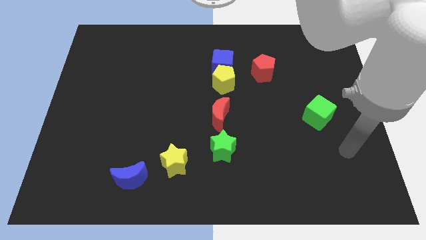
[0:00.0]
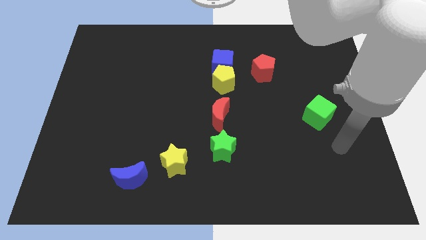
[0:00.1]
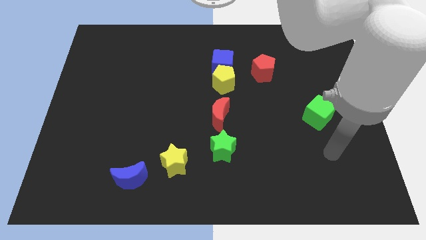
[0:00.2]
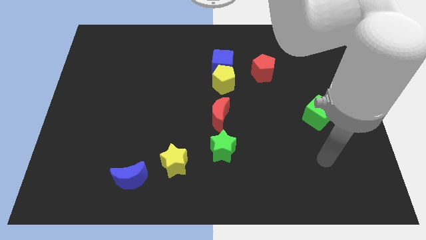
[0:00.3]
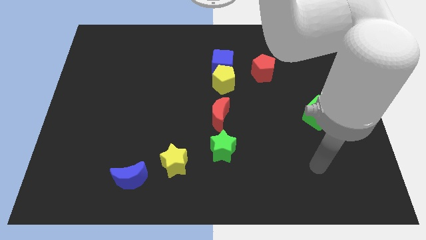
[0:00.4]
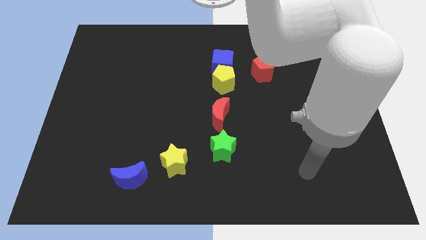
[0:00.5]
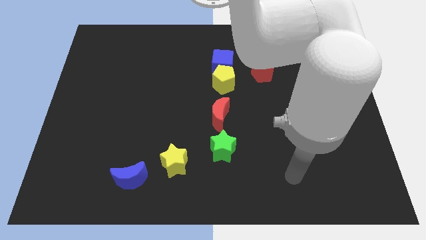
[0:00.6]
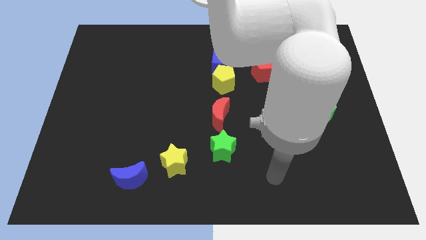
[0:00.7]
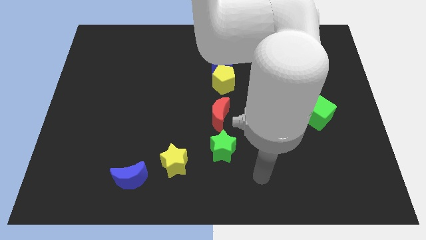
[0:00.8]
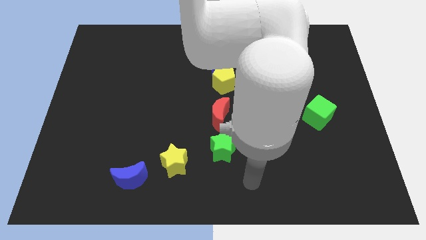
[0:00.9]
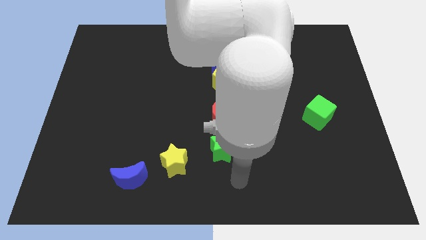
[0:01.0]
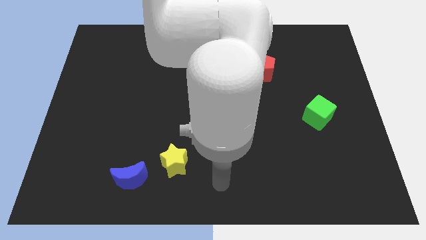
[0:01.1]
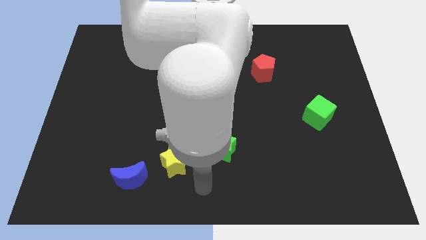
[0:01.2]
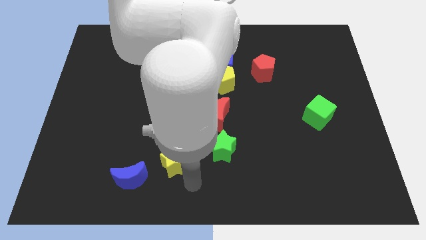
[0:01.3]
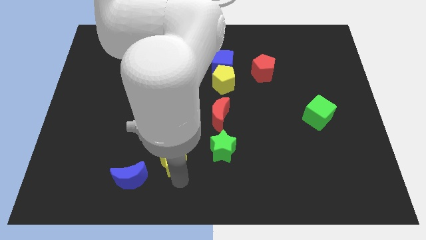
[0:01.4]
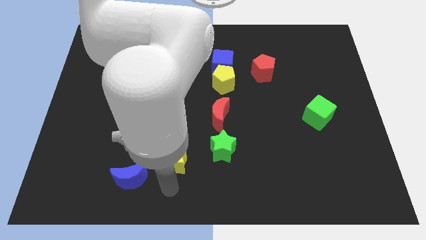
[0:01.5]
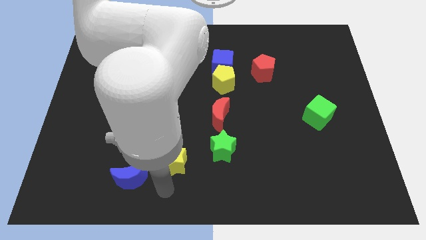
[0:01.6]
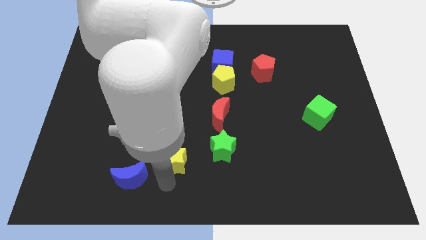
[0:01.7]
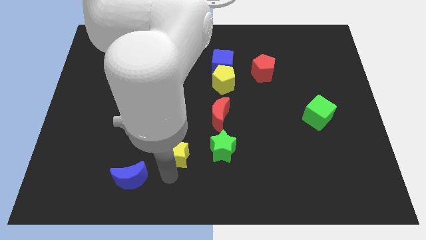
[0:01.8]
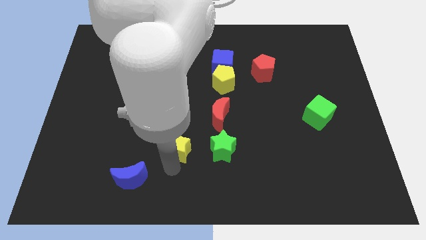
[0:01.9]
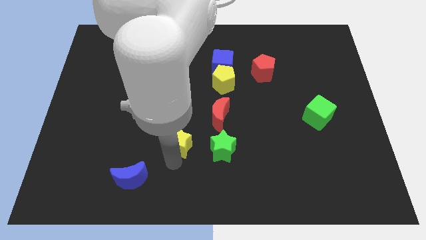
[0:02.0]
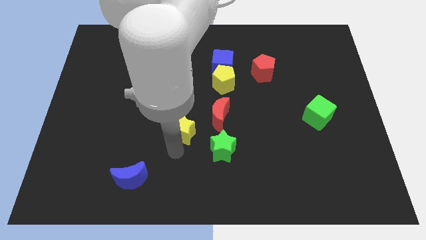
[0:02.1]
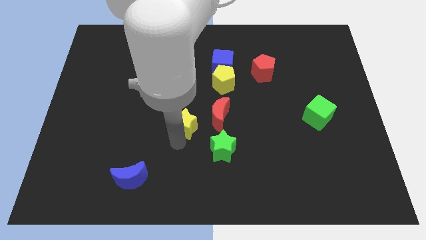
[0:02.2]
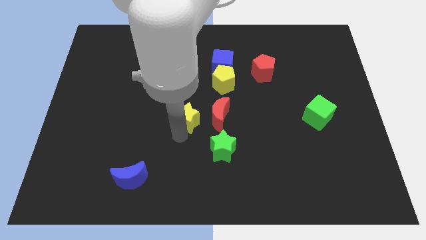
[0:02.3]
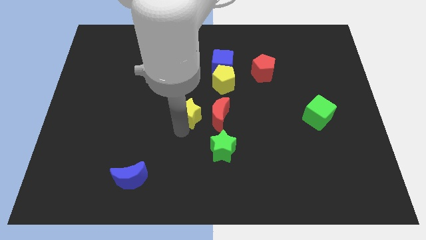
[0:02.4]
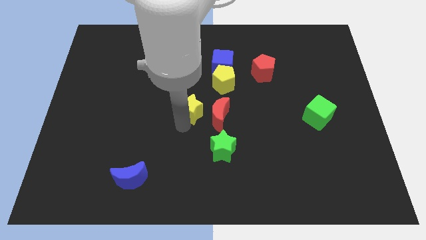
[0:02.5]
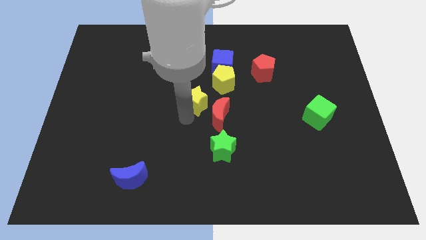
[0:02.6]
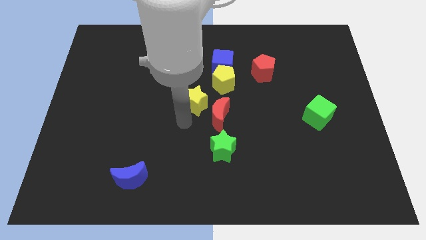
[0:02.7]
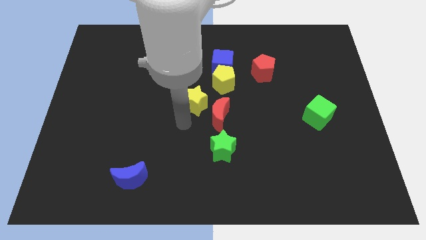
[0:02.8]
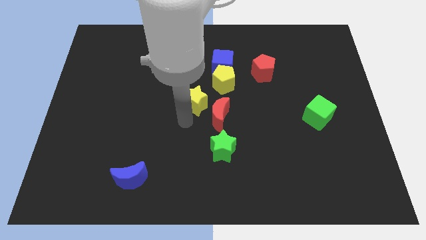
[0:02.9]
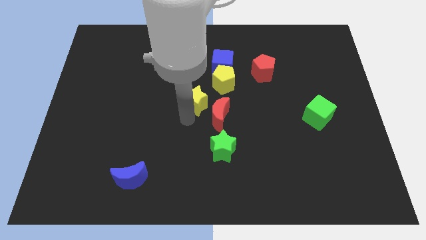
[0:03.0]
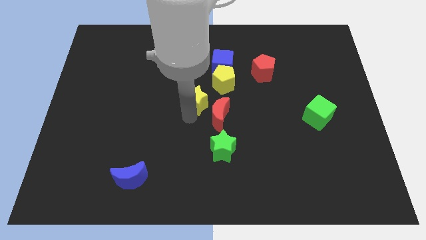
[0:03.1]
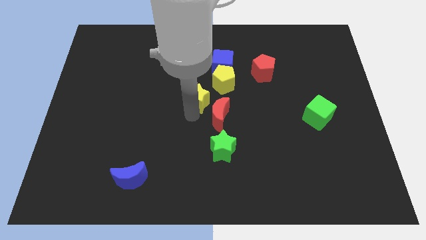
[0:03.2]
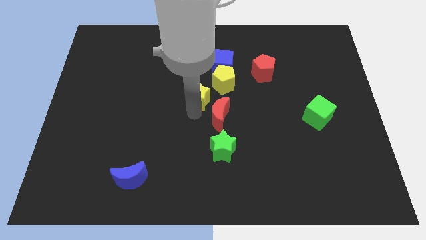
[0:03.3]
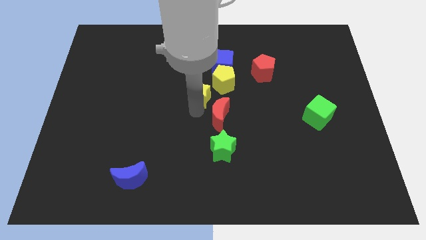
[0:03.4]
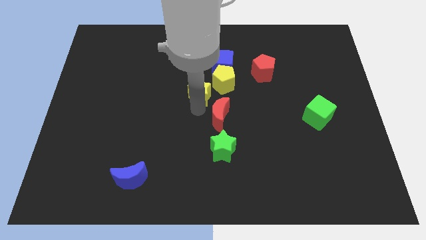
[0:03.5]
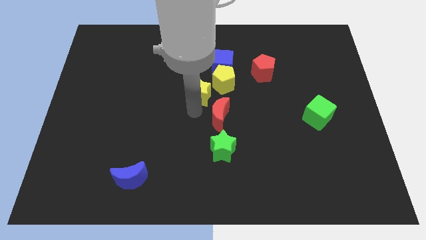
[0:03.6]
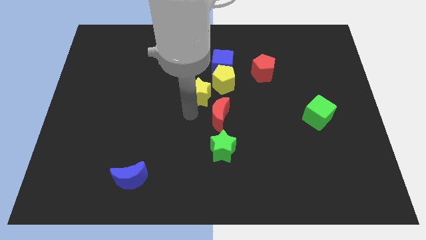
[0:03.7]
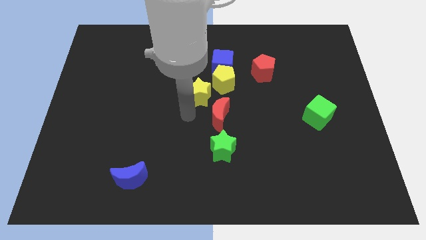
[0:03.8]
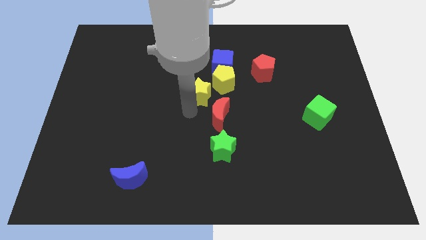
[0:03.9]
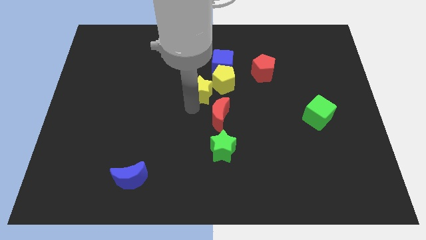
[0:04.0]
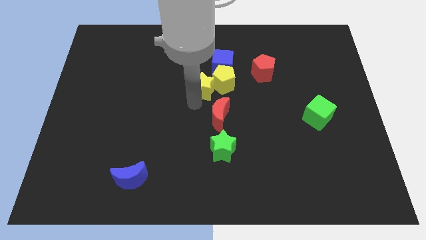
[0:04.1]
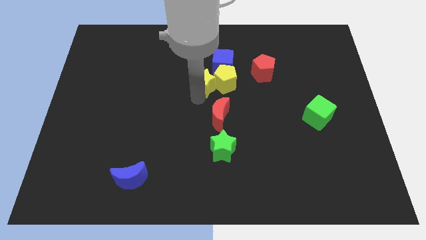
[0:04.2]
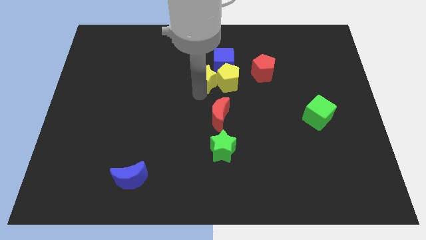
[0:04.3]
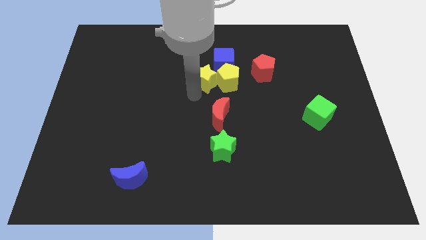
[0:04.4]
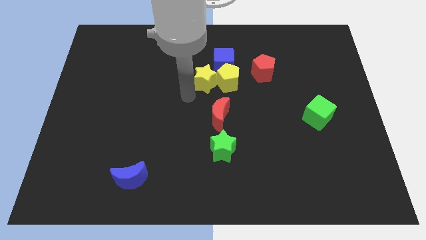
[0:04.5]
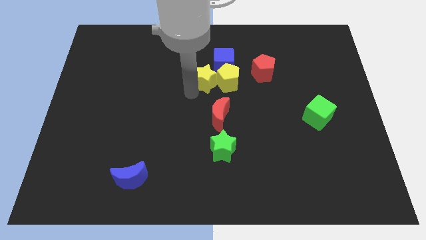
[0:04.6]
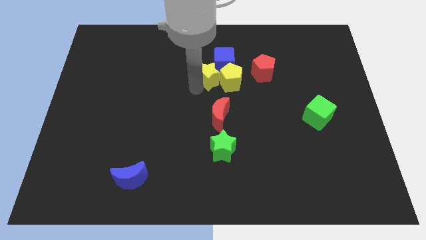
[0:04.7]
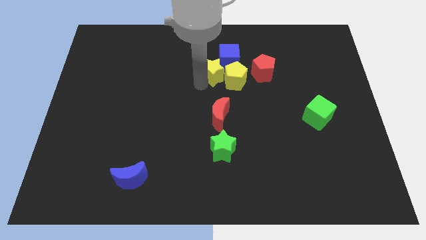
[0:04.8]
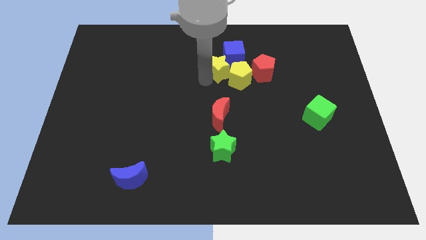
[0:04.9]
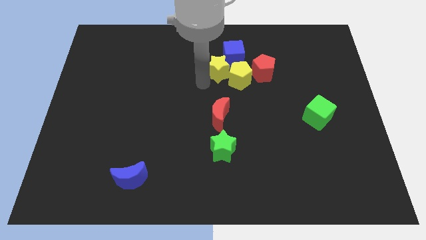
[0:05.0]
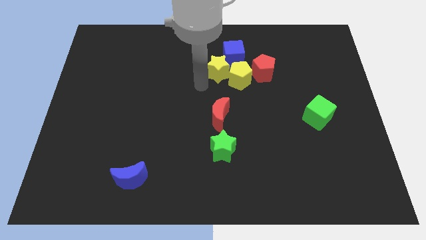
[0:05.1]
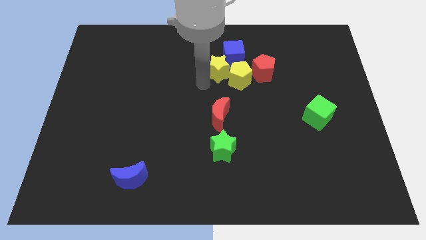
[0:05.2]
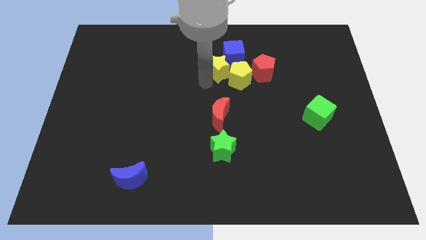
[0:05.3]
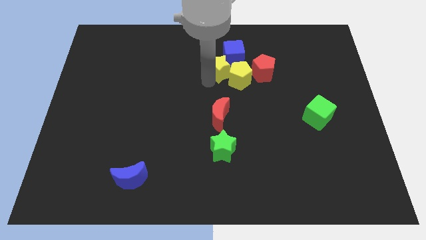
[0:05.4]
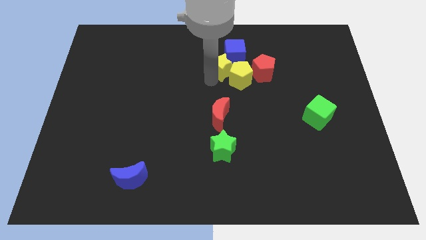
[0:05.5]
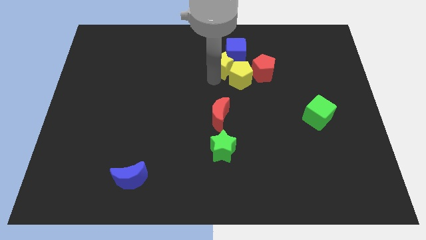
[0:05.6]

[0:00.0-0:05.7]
slide the yellow star to the blue cube

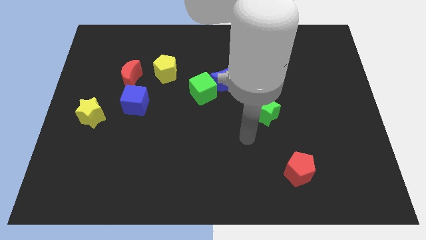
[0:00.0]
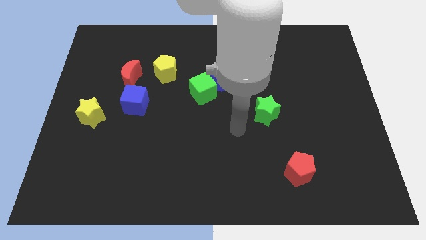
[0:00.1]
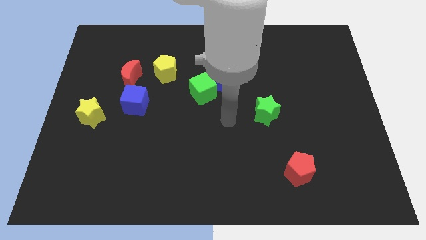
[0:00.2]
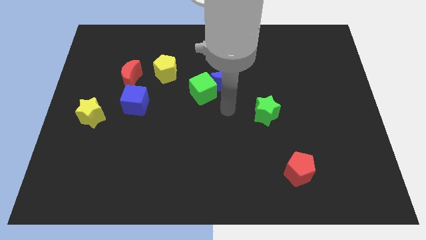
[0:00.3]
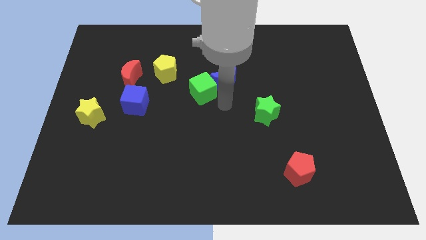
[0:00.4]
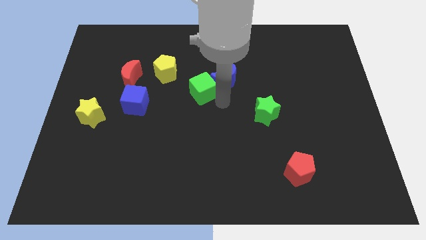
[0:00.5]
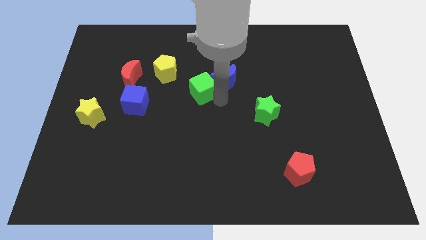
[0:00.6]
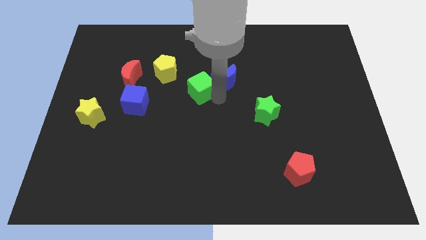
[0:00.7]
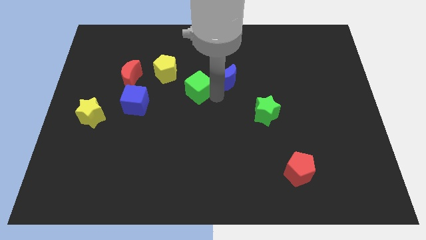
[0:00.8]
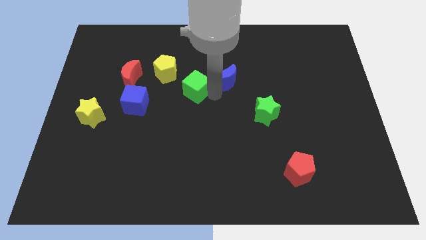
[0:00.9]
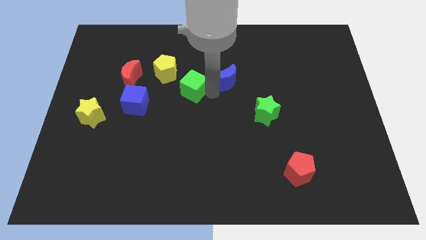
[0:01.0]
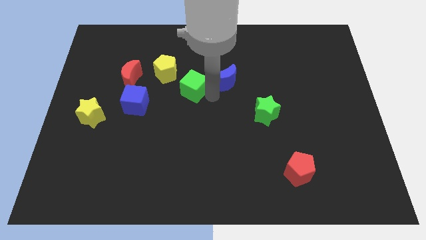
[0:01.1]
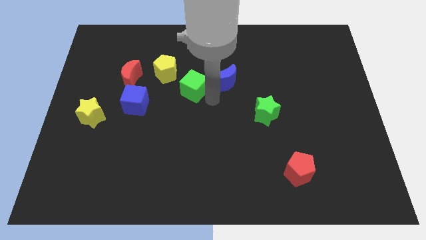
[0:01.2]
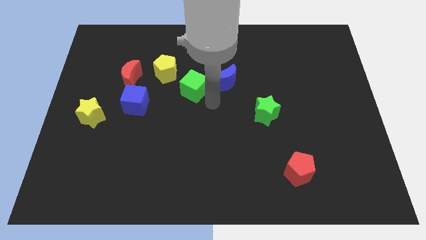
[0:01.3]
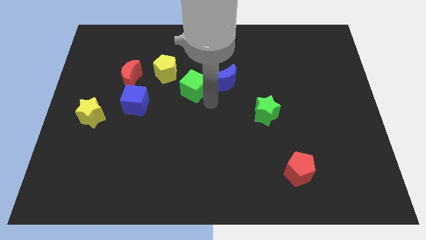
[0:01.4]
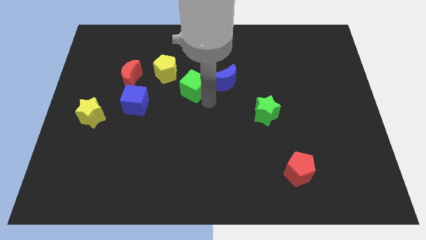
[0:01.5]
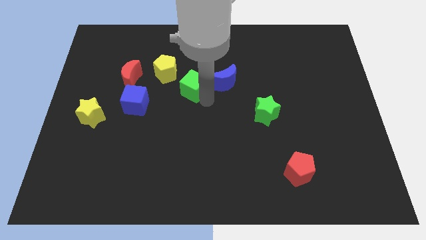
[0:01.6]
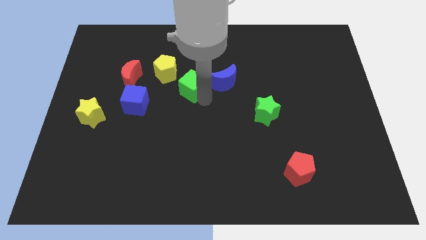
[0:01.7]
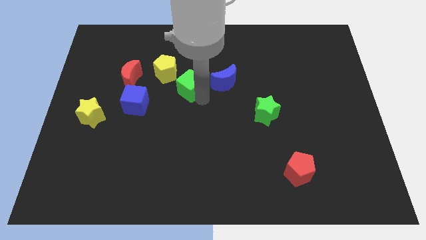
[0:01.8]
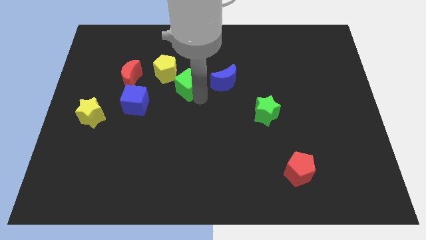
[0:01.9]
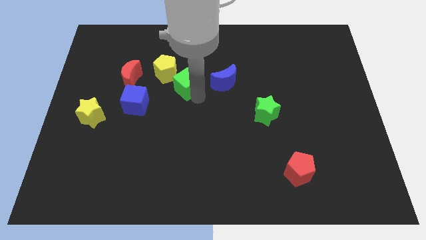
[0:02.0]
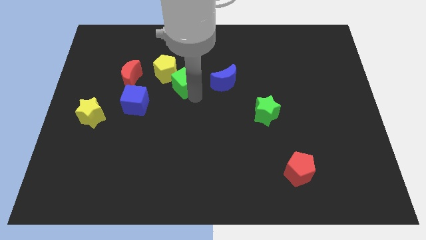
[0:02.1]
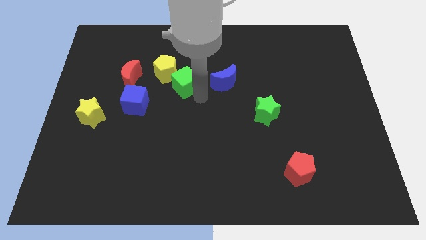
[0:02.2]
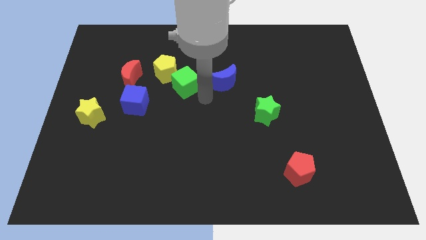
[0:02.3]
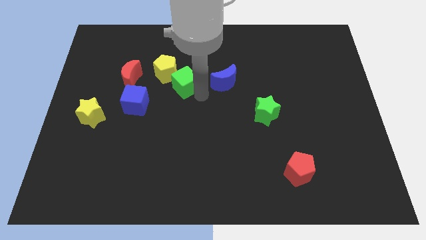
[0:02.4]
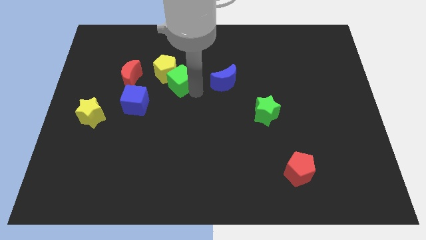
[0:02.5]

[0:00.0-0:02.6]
slide the green cube next to the yellow pentagon
